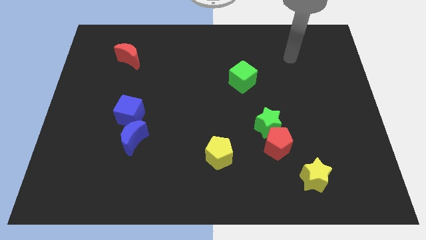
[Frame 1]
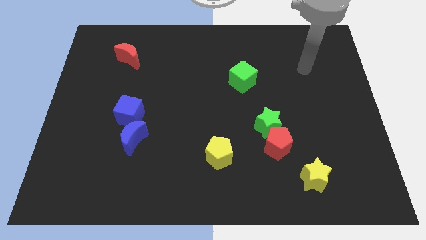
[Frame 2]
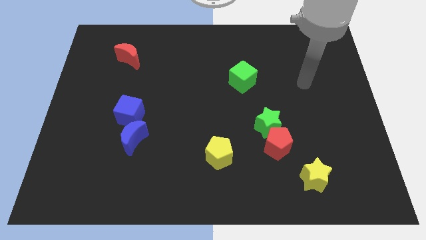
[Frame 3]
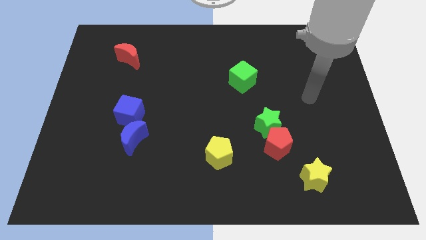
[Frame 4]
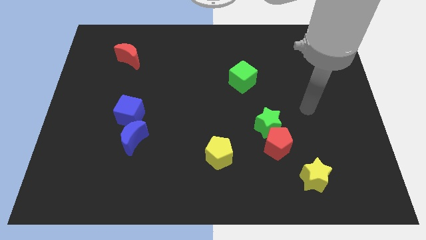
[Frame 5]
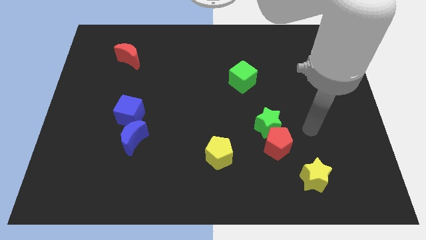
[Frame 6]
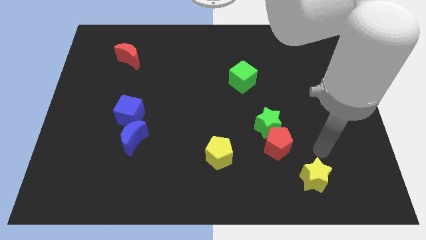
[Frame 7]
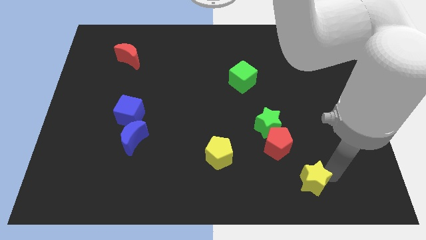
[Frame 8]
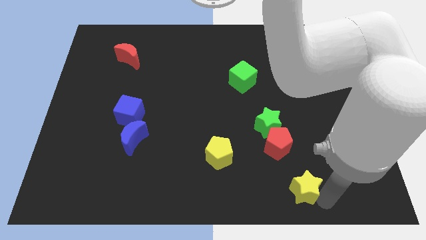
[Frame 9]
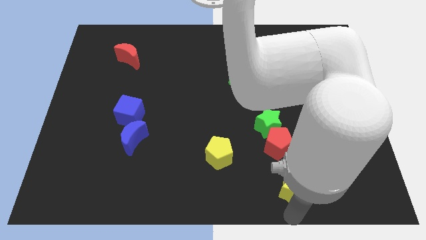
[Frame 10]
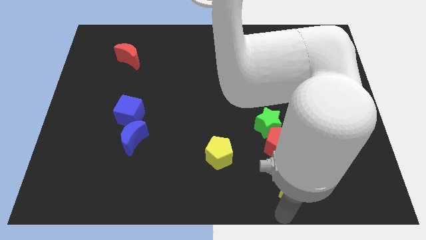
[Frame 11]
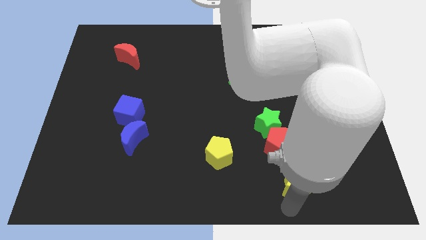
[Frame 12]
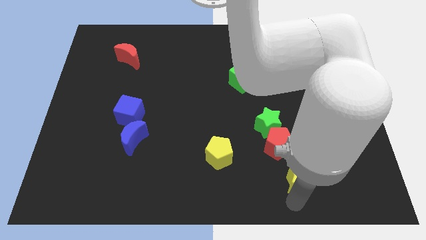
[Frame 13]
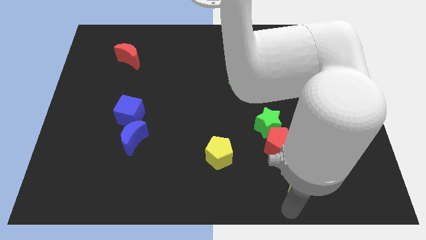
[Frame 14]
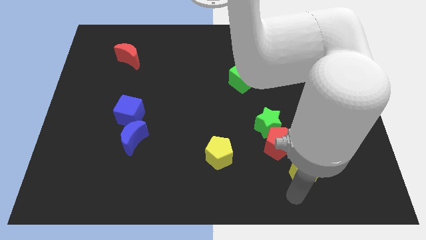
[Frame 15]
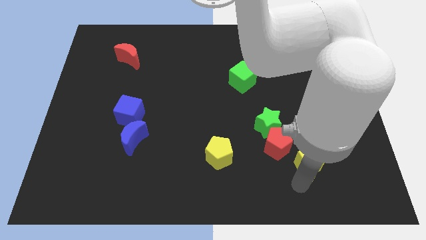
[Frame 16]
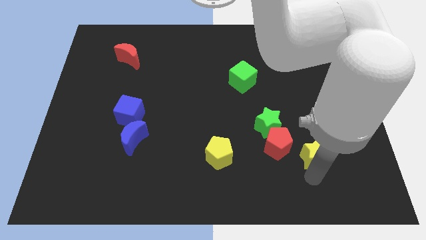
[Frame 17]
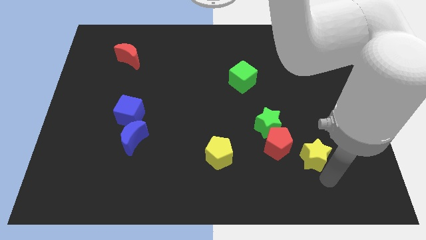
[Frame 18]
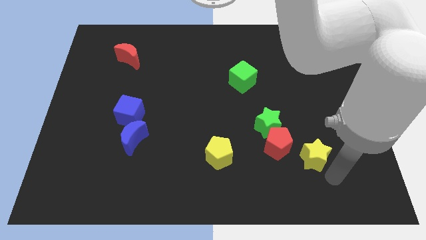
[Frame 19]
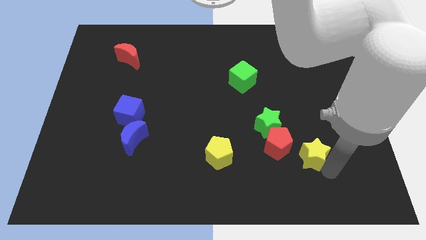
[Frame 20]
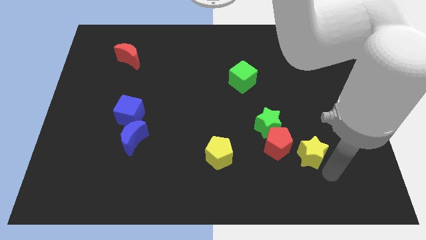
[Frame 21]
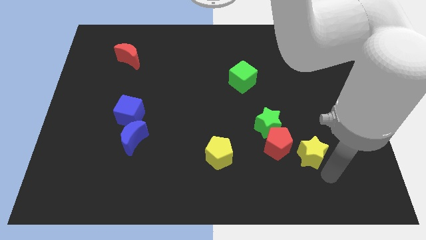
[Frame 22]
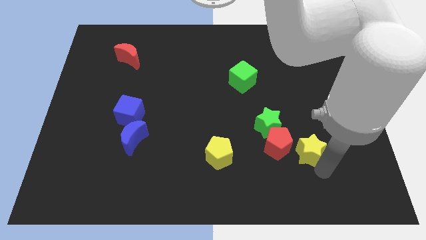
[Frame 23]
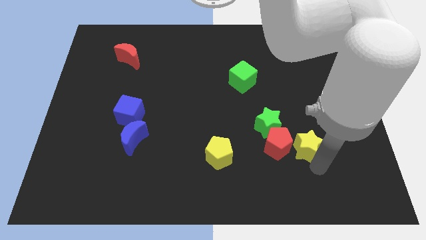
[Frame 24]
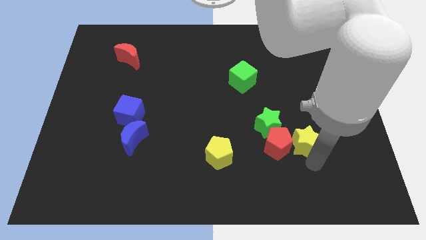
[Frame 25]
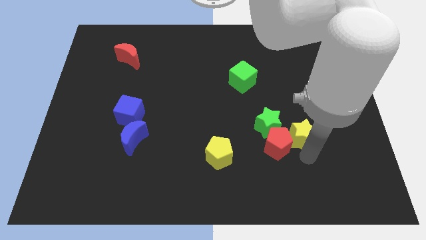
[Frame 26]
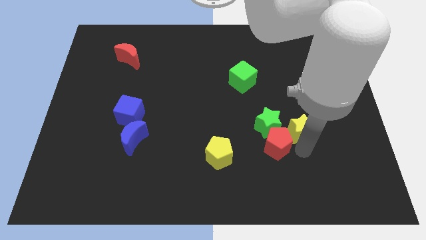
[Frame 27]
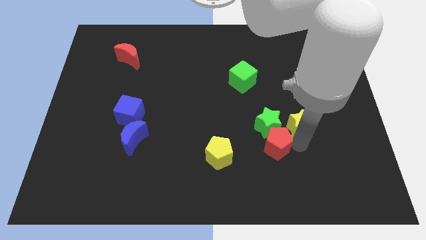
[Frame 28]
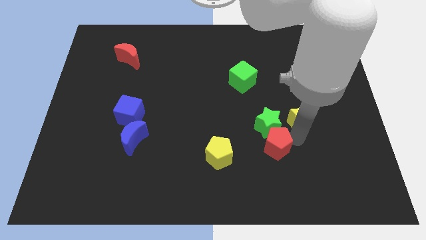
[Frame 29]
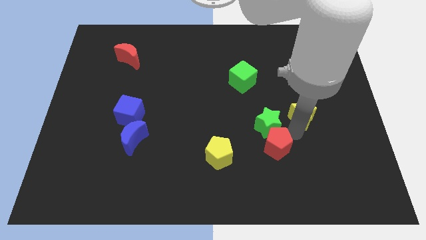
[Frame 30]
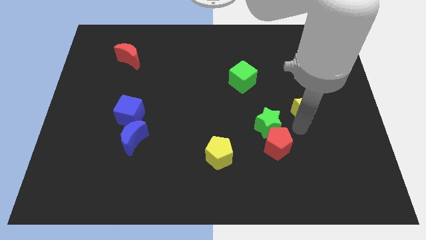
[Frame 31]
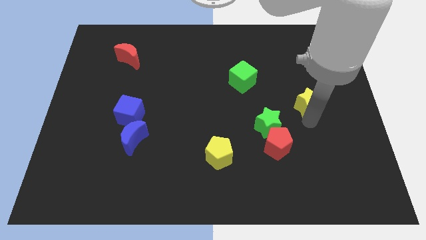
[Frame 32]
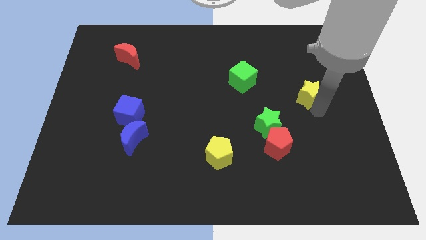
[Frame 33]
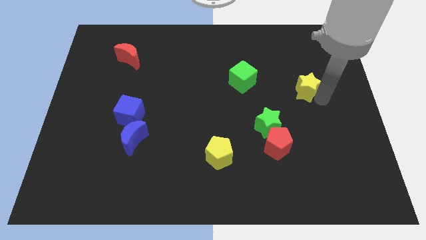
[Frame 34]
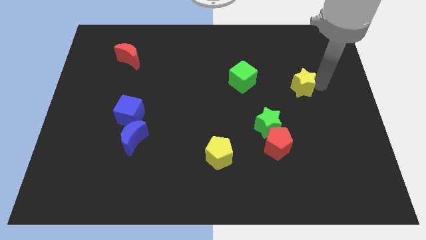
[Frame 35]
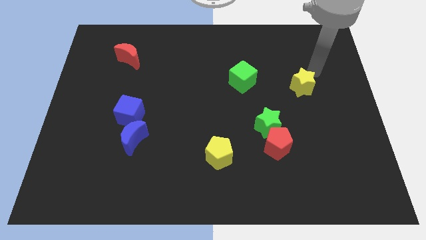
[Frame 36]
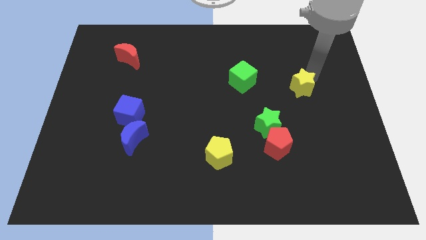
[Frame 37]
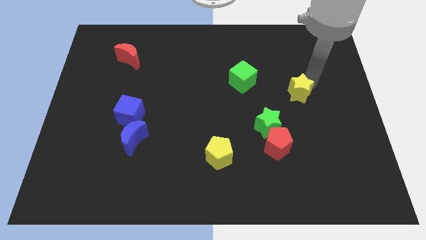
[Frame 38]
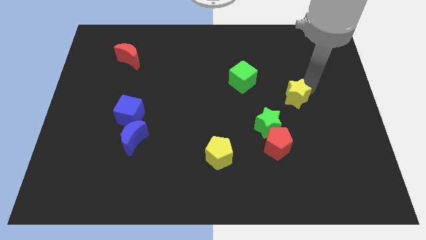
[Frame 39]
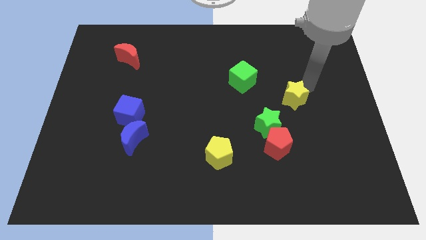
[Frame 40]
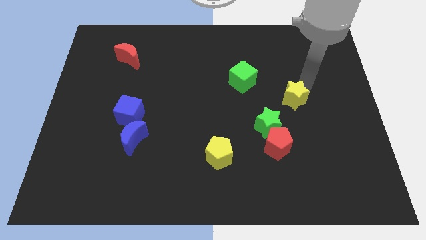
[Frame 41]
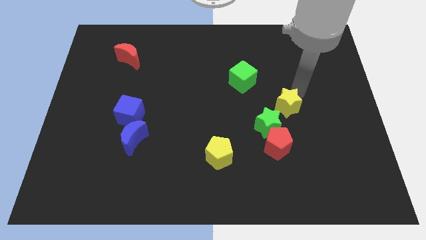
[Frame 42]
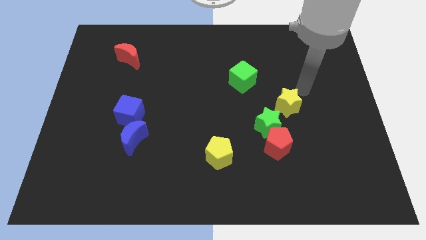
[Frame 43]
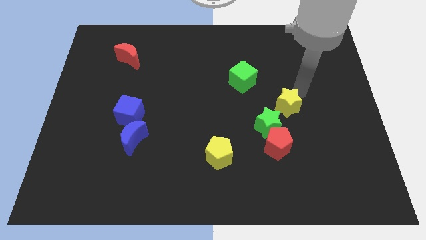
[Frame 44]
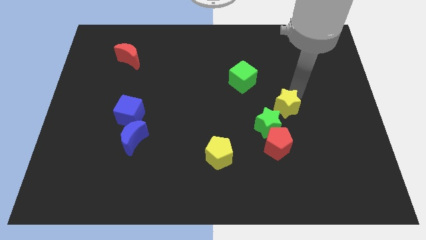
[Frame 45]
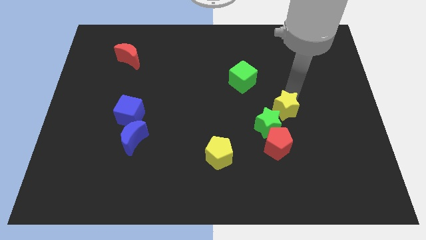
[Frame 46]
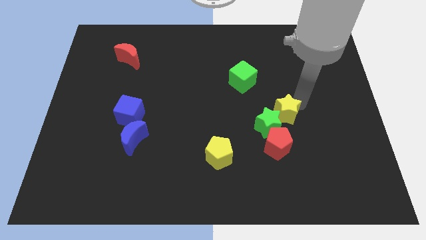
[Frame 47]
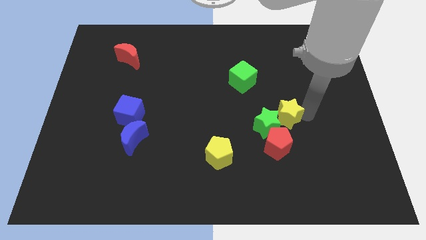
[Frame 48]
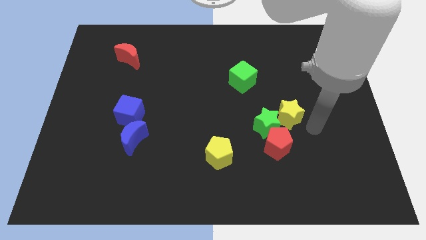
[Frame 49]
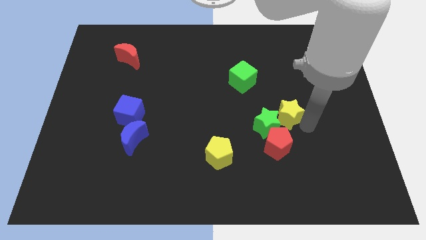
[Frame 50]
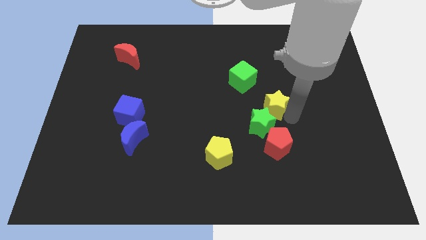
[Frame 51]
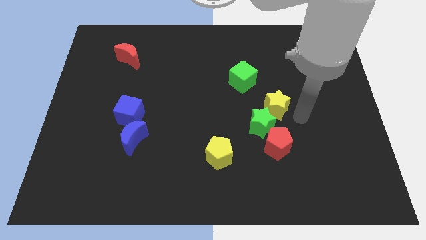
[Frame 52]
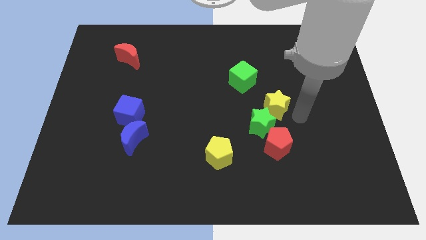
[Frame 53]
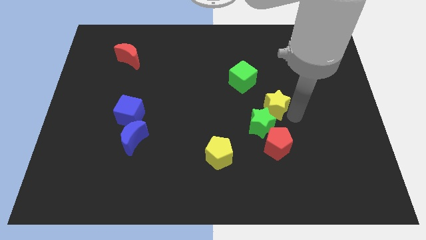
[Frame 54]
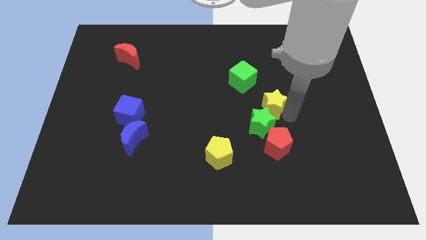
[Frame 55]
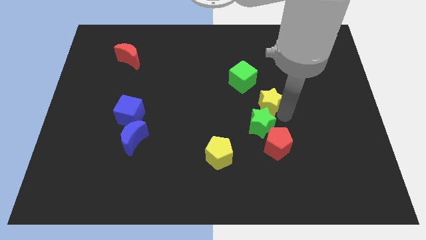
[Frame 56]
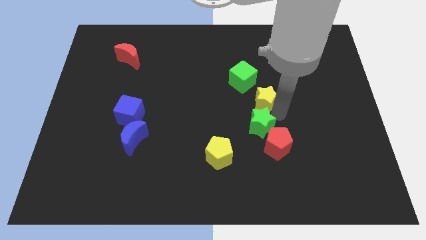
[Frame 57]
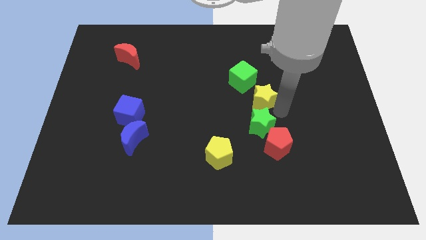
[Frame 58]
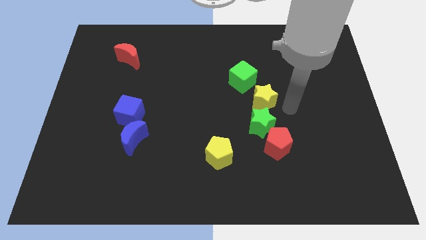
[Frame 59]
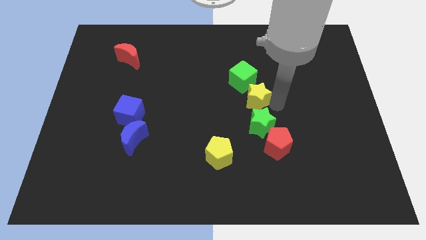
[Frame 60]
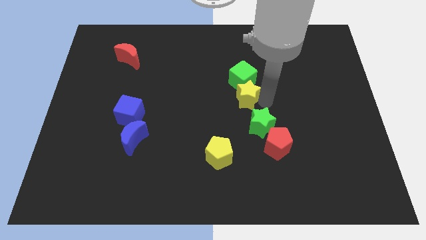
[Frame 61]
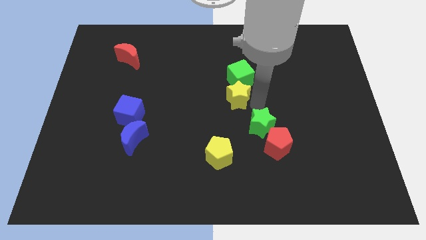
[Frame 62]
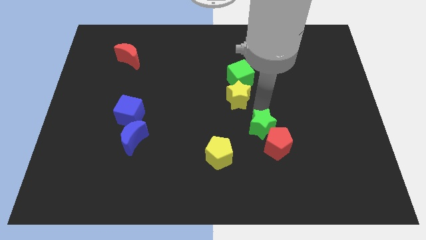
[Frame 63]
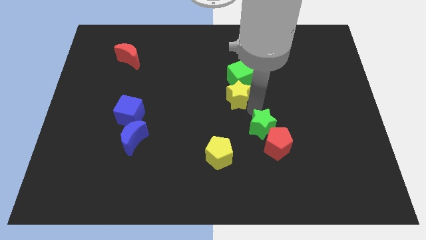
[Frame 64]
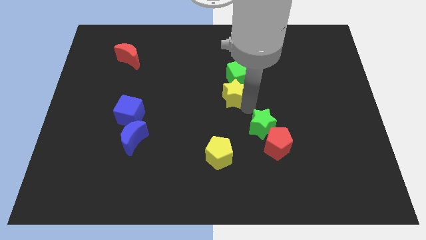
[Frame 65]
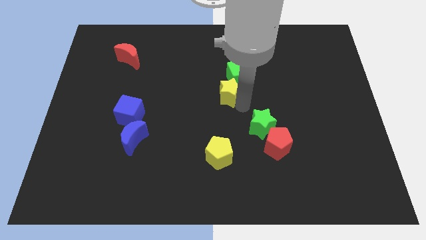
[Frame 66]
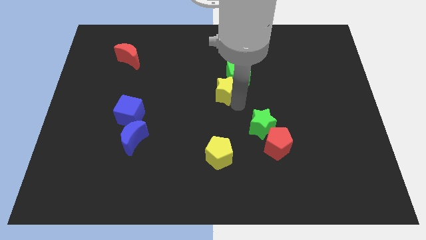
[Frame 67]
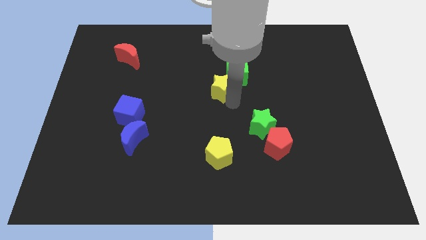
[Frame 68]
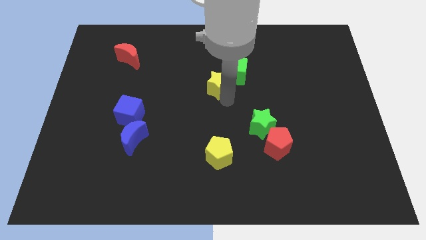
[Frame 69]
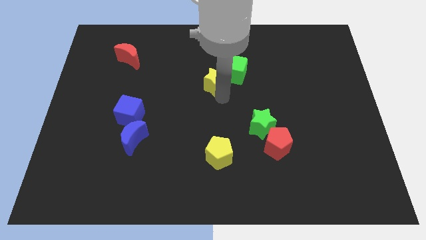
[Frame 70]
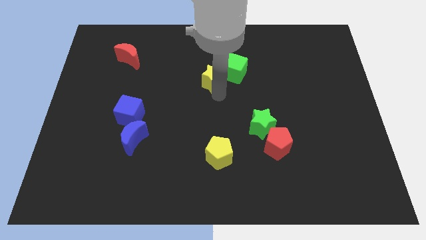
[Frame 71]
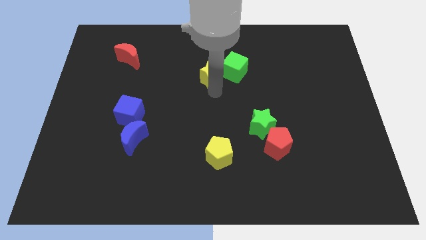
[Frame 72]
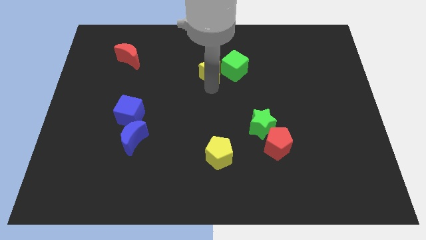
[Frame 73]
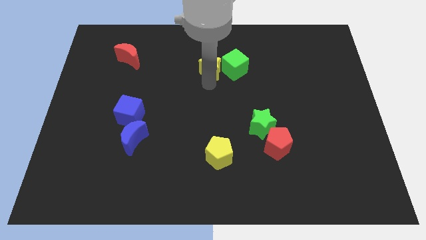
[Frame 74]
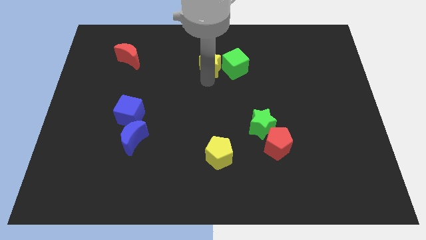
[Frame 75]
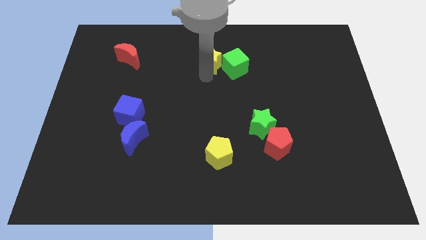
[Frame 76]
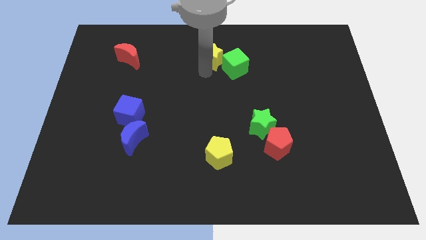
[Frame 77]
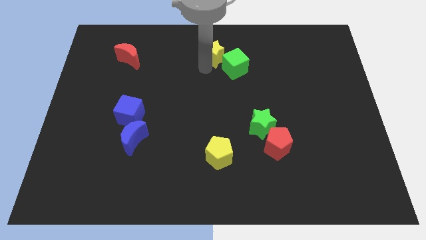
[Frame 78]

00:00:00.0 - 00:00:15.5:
move the yellow star to the top
